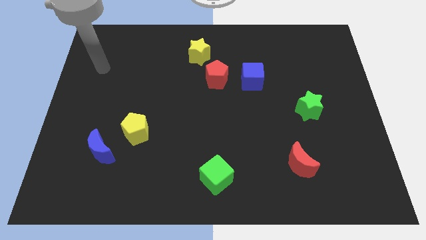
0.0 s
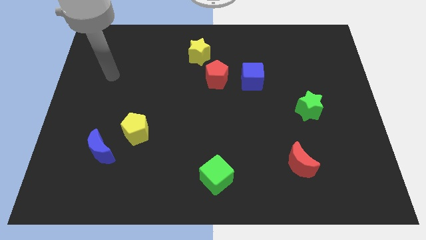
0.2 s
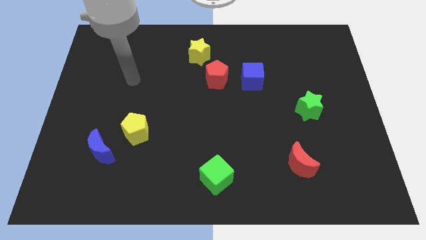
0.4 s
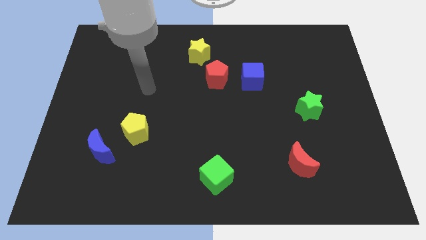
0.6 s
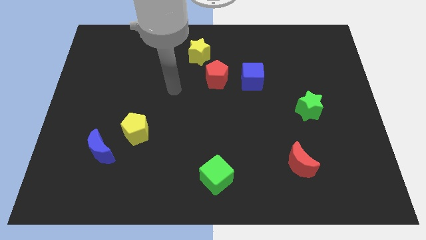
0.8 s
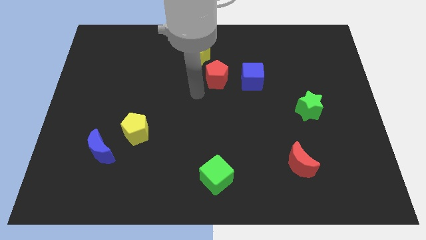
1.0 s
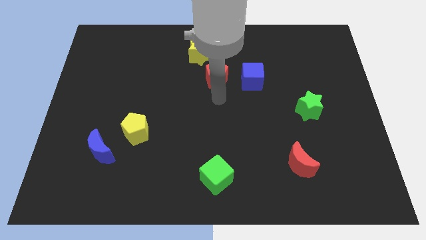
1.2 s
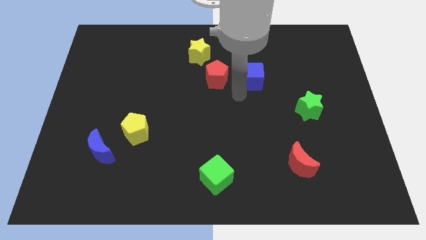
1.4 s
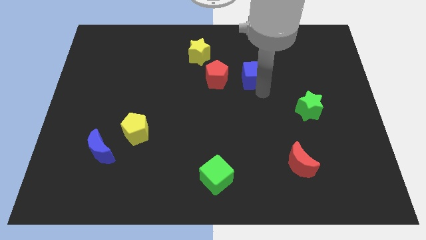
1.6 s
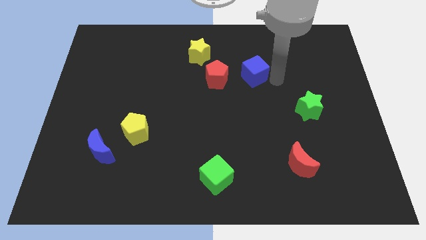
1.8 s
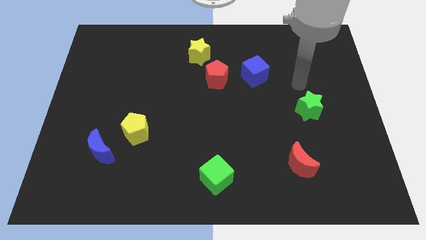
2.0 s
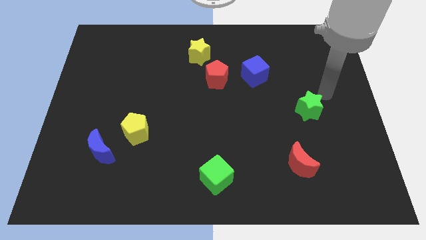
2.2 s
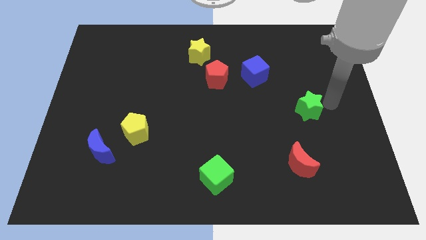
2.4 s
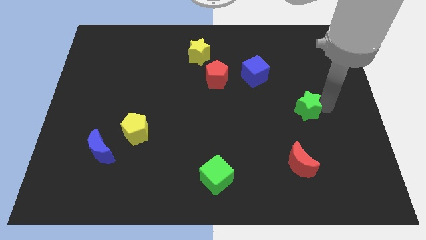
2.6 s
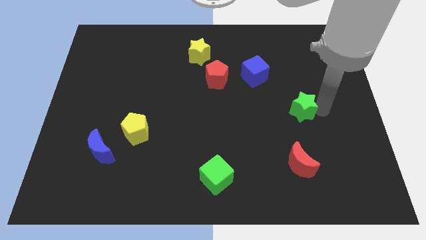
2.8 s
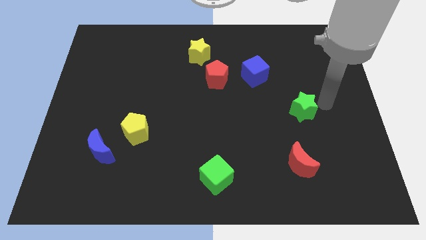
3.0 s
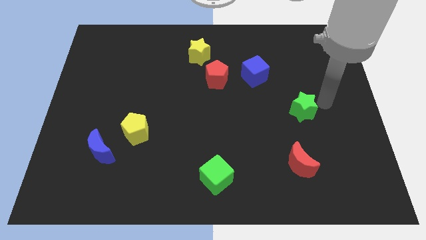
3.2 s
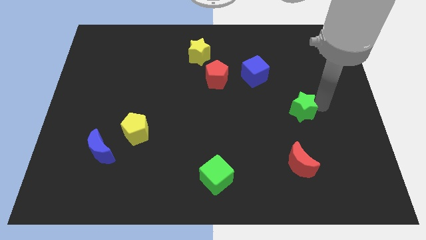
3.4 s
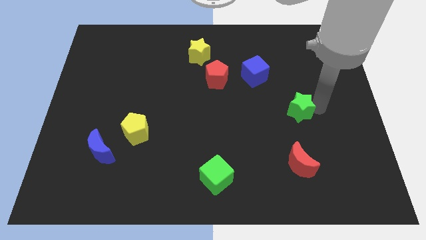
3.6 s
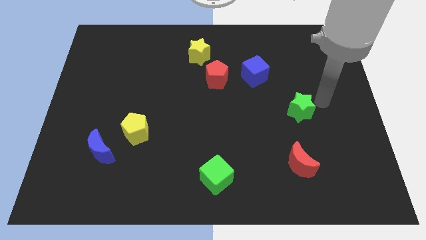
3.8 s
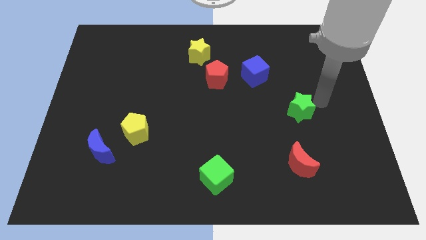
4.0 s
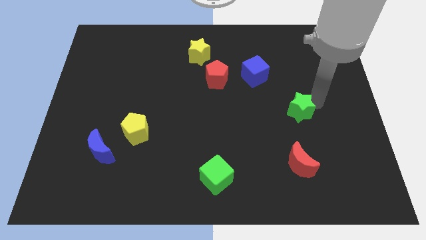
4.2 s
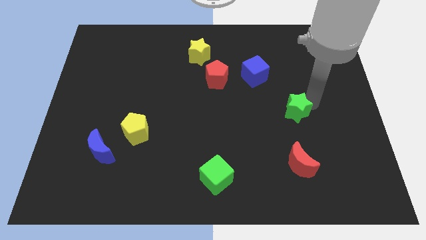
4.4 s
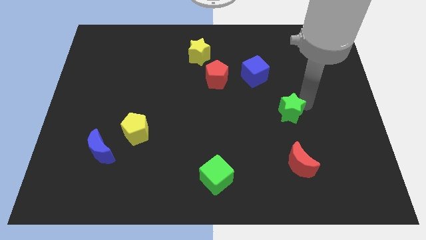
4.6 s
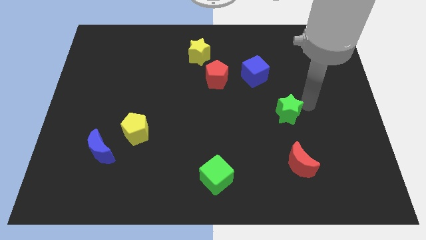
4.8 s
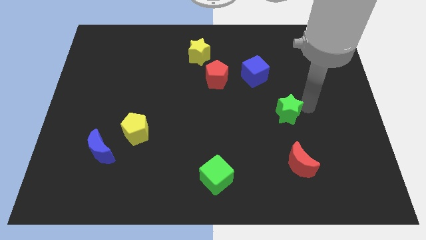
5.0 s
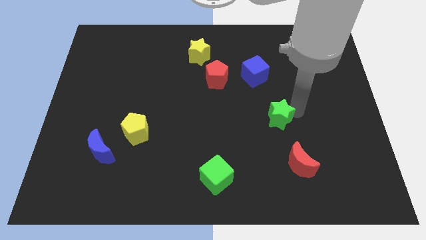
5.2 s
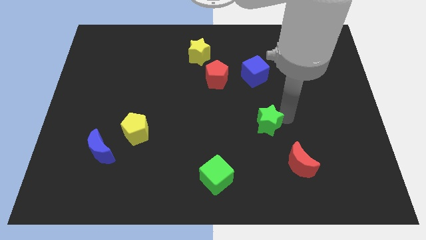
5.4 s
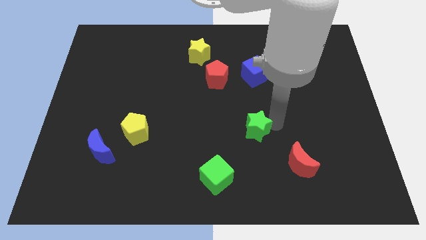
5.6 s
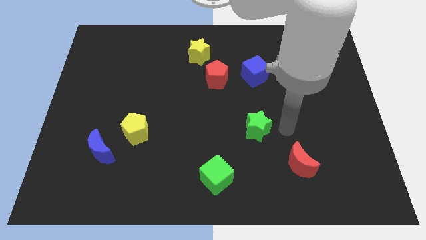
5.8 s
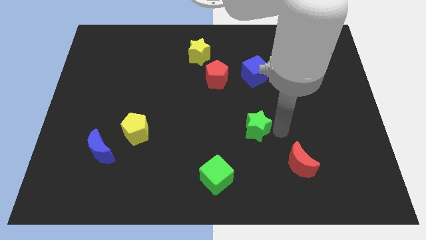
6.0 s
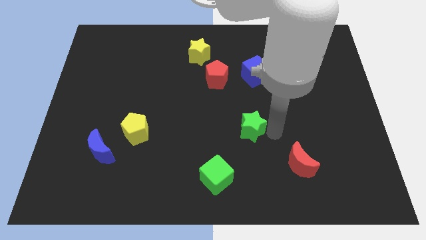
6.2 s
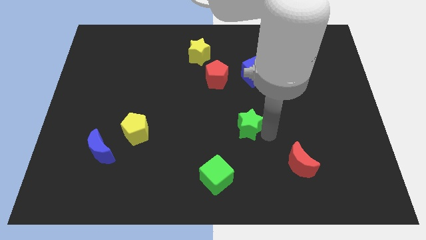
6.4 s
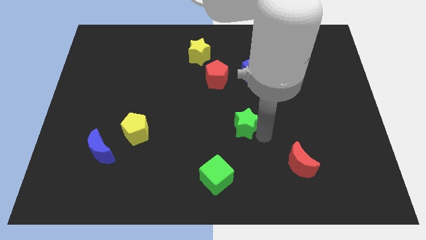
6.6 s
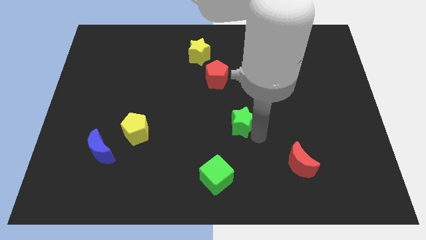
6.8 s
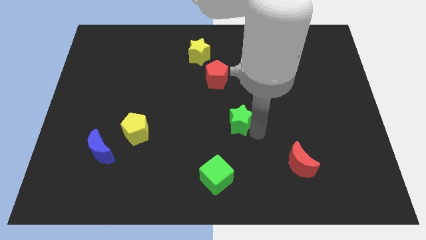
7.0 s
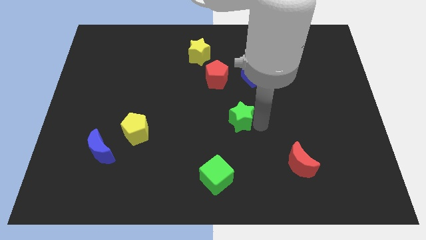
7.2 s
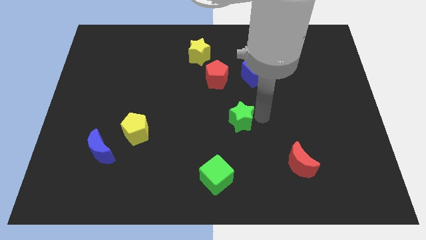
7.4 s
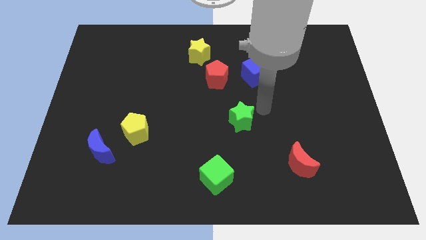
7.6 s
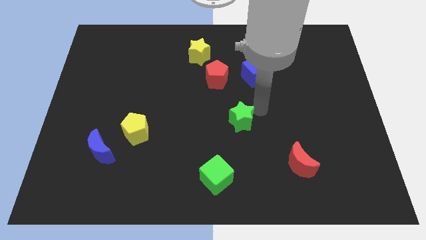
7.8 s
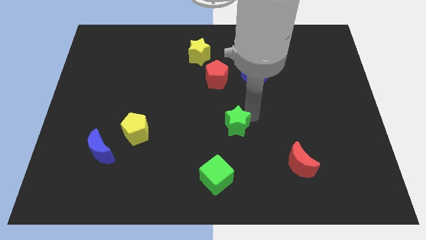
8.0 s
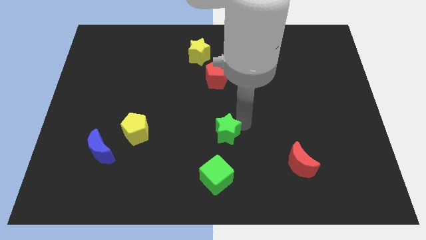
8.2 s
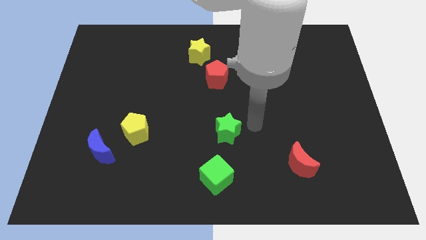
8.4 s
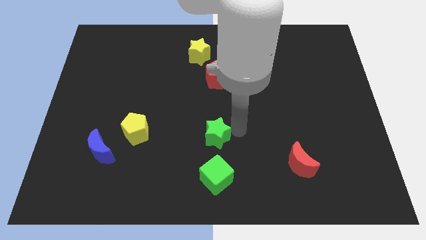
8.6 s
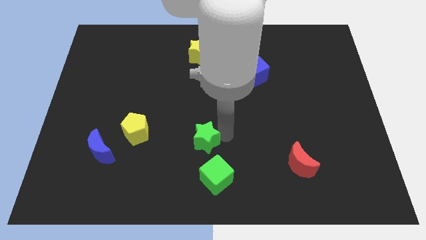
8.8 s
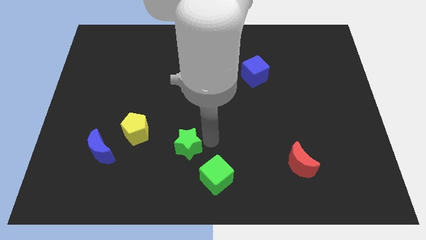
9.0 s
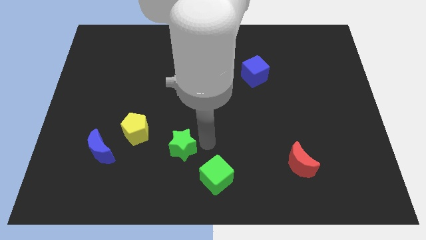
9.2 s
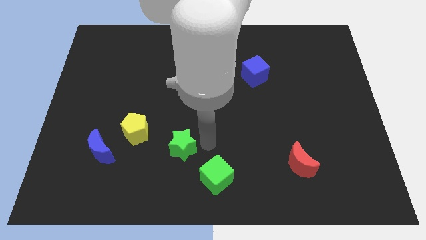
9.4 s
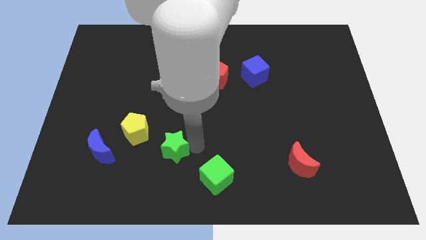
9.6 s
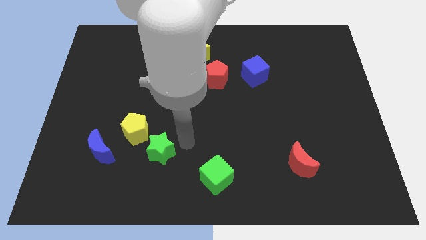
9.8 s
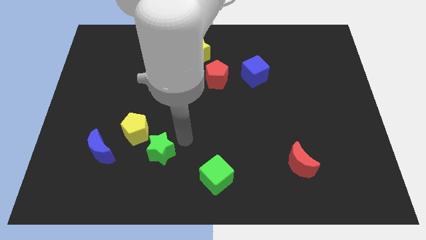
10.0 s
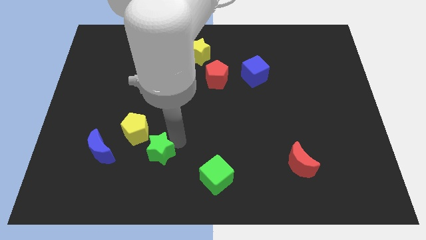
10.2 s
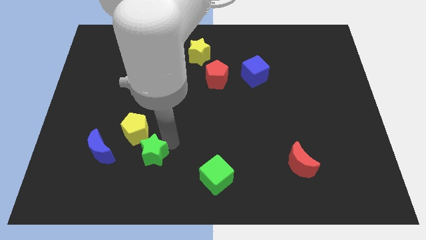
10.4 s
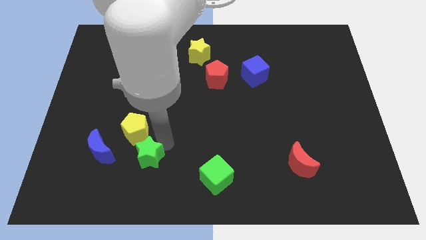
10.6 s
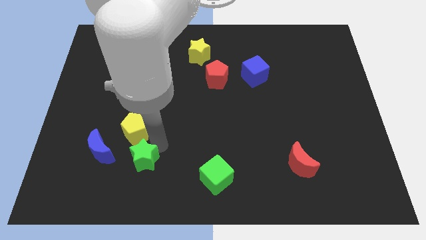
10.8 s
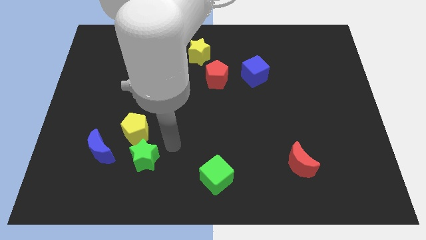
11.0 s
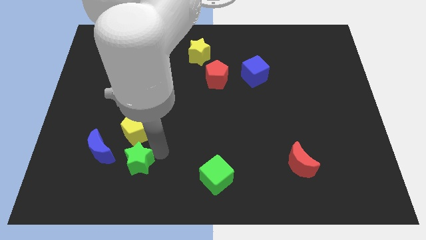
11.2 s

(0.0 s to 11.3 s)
put the green star to the bottom right side of the blue moon

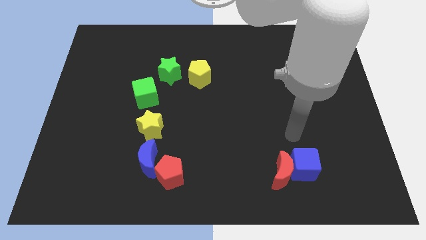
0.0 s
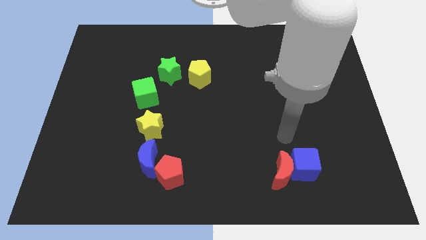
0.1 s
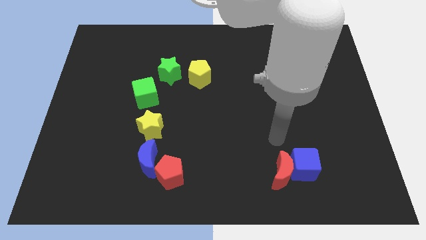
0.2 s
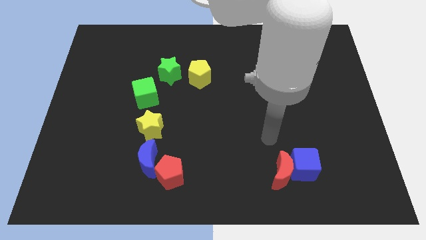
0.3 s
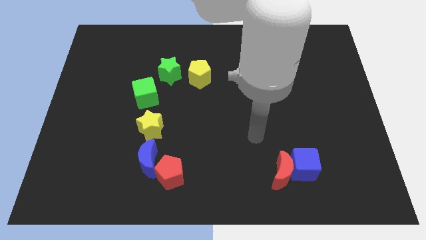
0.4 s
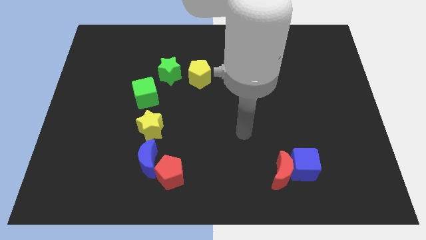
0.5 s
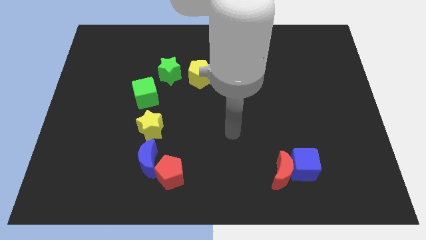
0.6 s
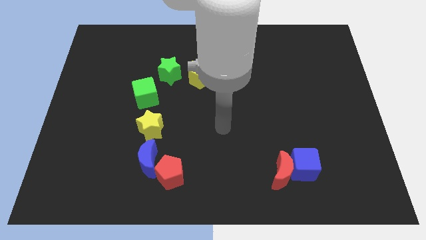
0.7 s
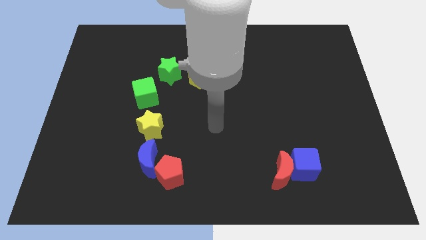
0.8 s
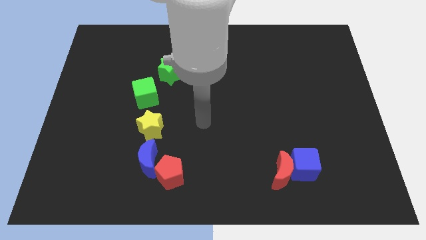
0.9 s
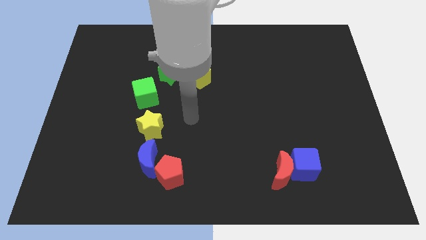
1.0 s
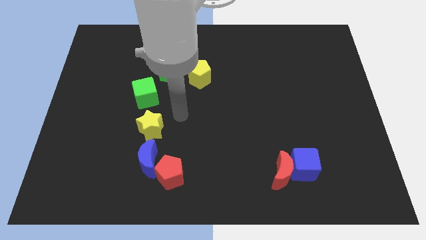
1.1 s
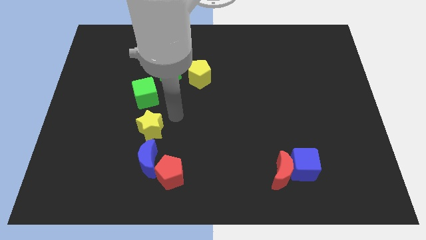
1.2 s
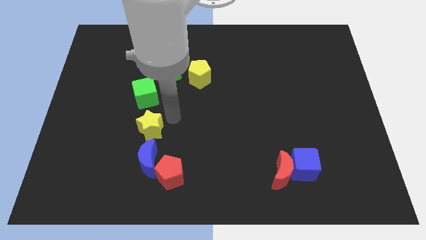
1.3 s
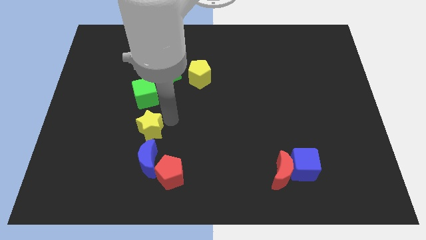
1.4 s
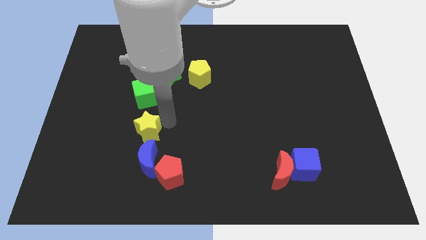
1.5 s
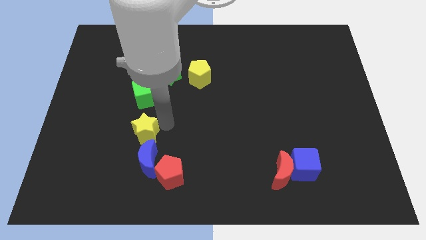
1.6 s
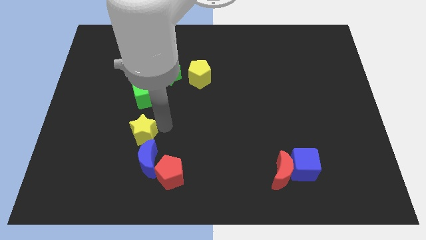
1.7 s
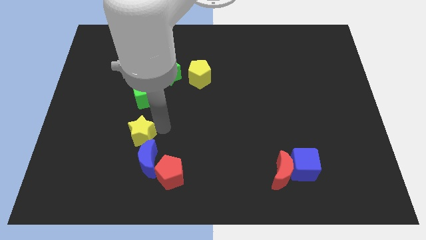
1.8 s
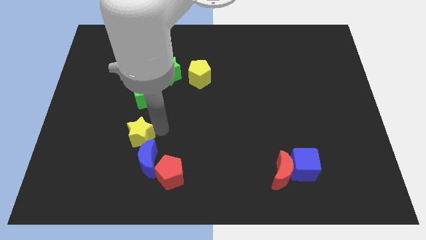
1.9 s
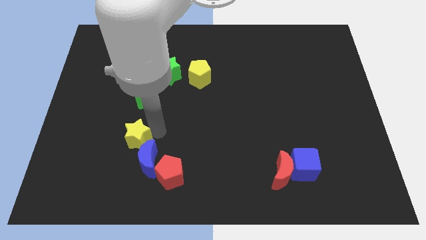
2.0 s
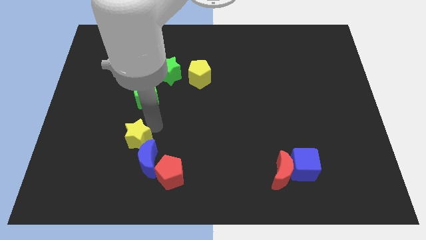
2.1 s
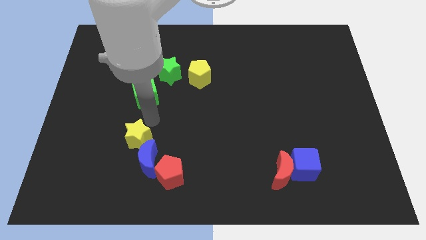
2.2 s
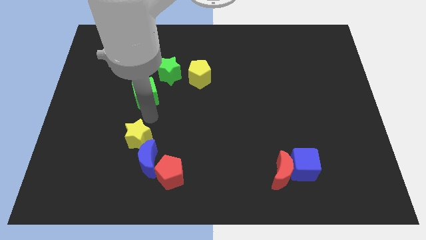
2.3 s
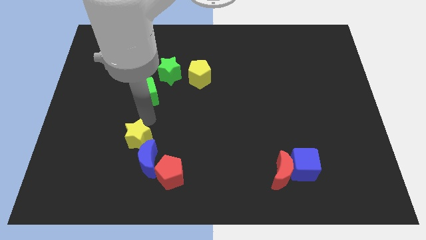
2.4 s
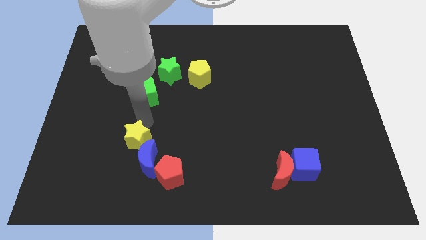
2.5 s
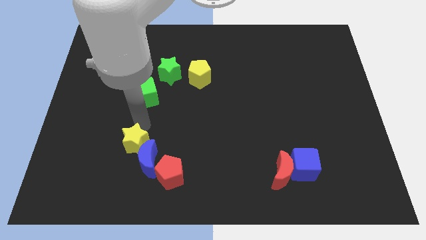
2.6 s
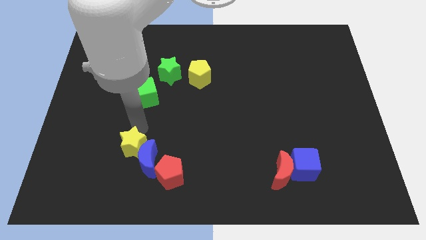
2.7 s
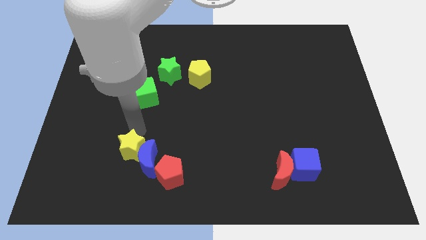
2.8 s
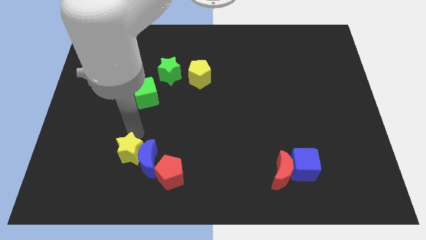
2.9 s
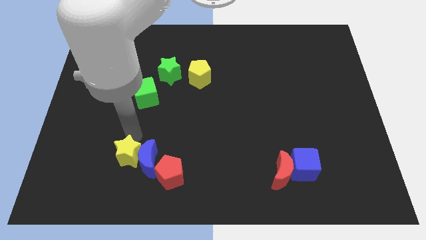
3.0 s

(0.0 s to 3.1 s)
put the yellow star left of the red pentagon
